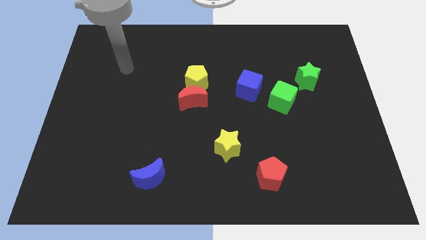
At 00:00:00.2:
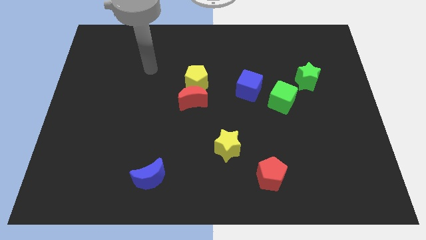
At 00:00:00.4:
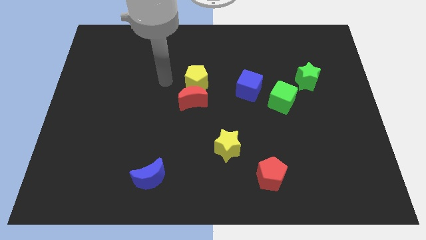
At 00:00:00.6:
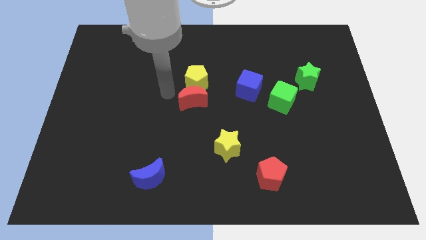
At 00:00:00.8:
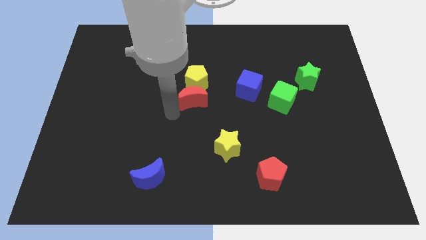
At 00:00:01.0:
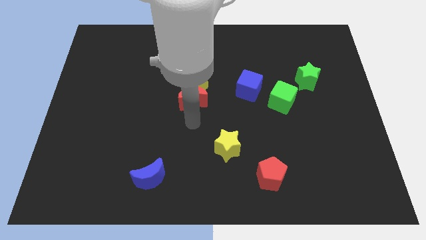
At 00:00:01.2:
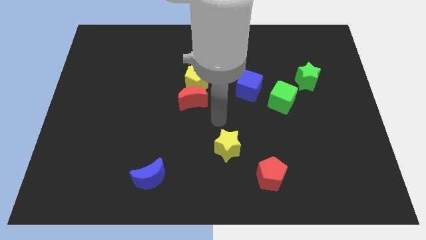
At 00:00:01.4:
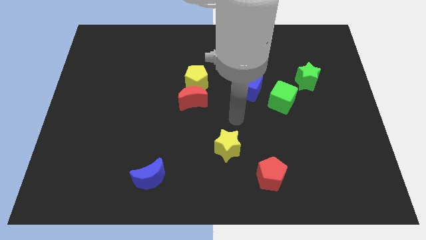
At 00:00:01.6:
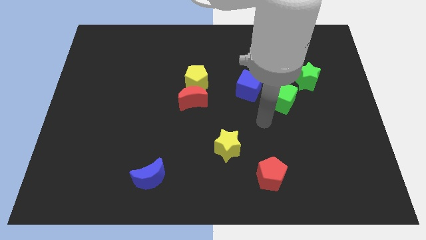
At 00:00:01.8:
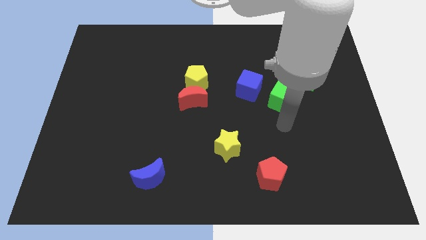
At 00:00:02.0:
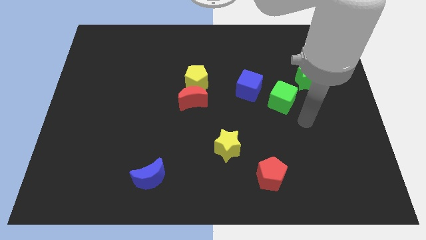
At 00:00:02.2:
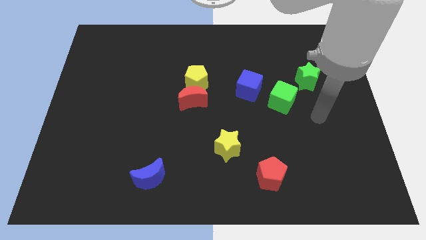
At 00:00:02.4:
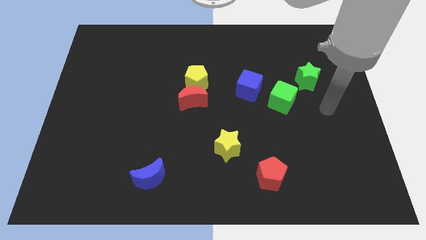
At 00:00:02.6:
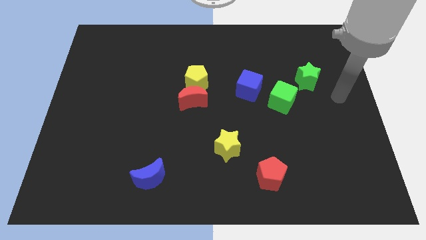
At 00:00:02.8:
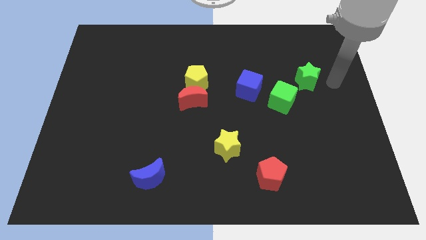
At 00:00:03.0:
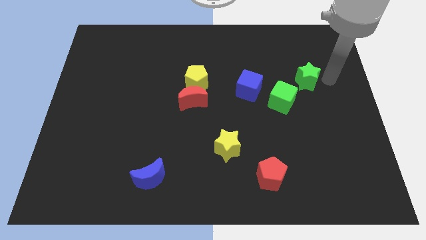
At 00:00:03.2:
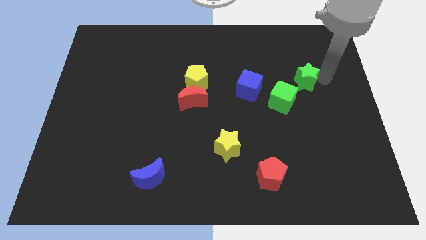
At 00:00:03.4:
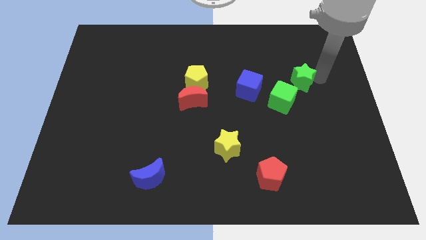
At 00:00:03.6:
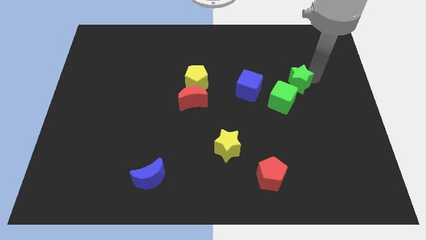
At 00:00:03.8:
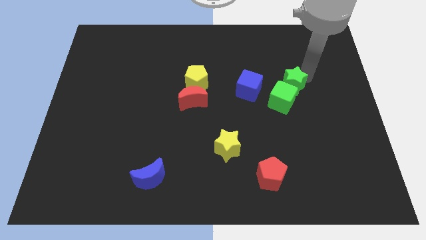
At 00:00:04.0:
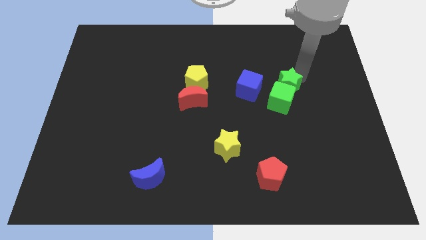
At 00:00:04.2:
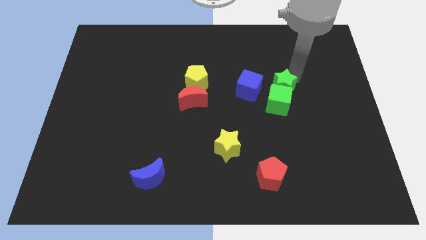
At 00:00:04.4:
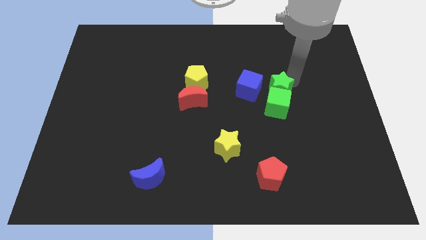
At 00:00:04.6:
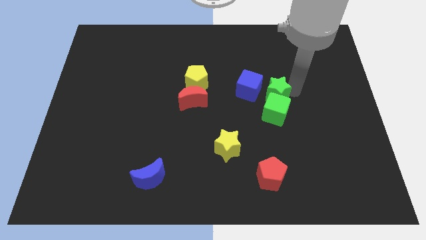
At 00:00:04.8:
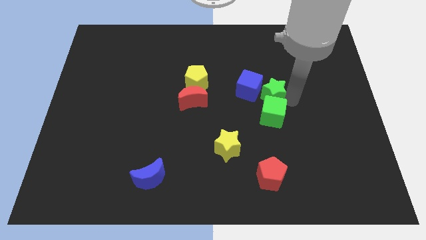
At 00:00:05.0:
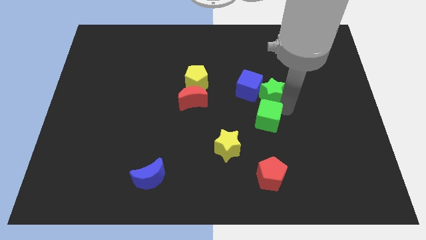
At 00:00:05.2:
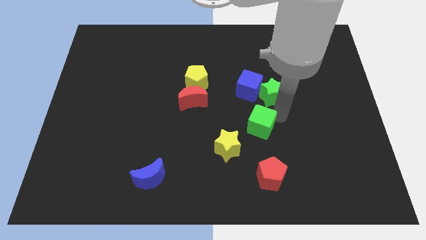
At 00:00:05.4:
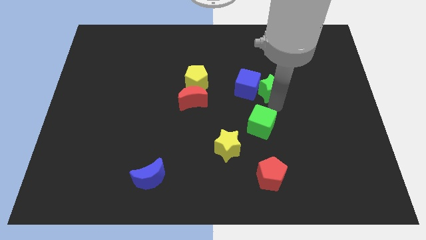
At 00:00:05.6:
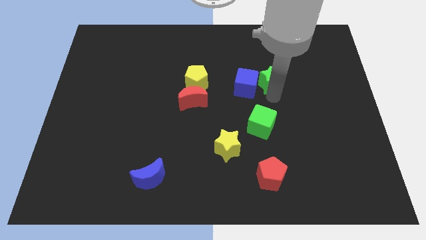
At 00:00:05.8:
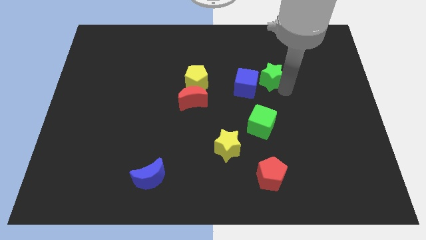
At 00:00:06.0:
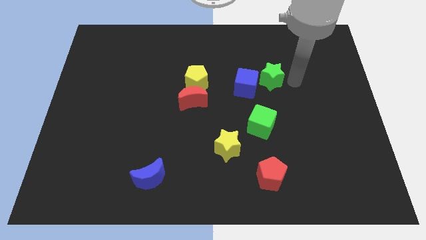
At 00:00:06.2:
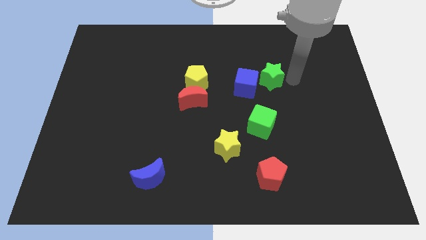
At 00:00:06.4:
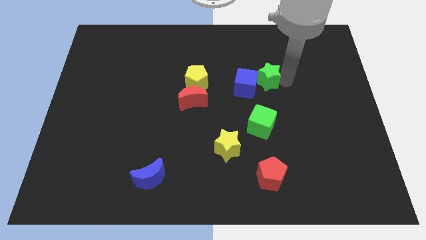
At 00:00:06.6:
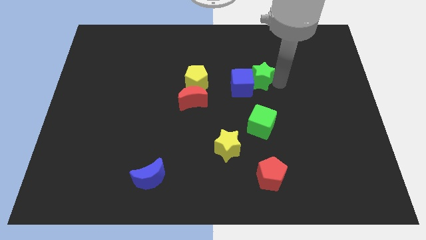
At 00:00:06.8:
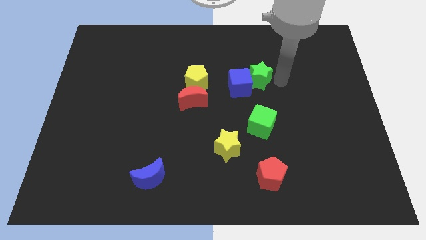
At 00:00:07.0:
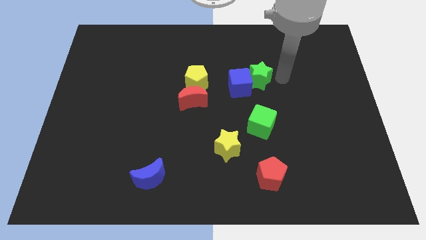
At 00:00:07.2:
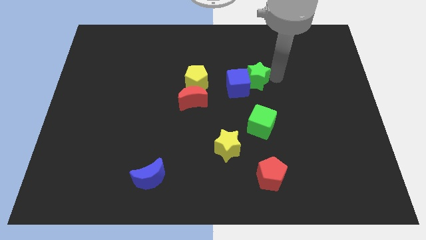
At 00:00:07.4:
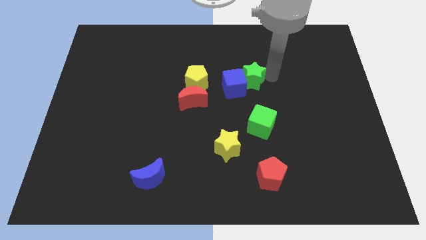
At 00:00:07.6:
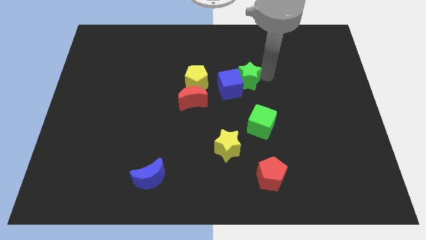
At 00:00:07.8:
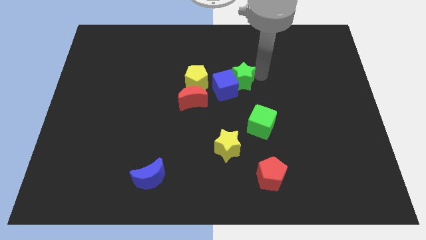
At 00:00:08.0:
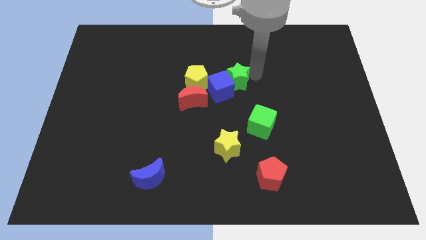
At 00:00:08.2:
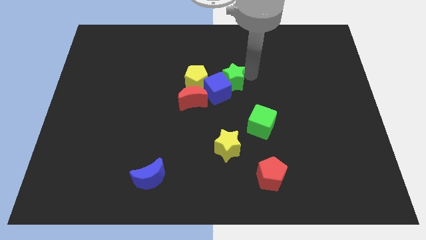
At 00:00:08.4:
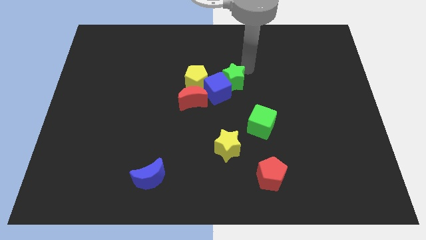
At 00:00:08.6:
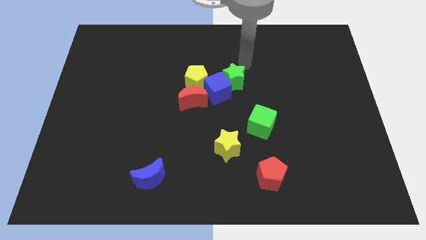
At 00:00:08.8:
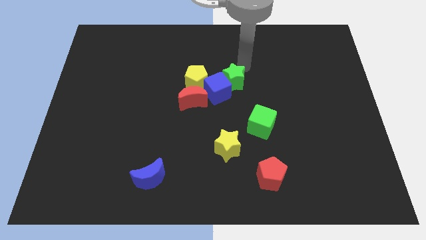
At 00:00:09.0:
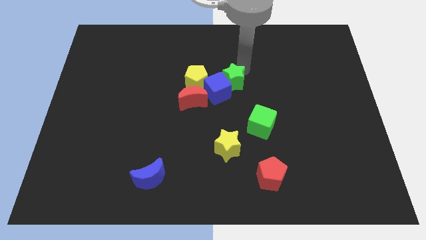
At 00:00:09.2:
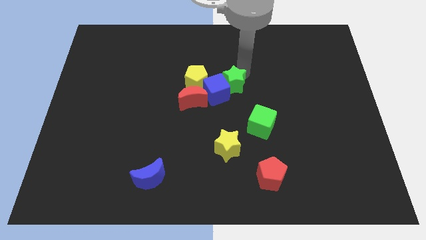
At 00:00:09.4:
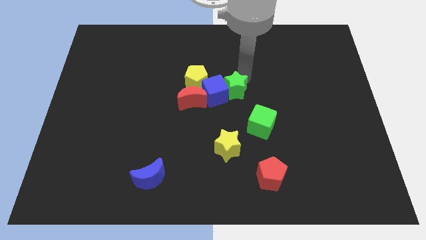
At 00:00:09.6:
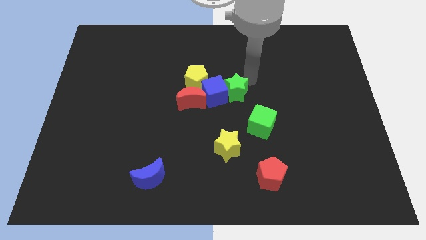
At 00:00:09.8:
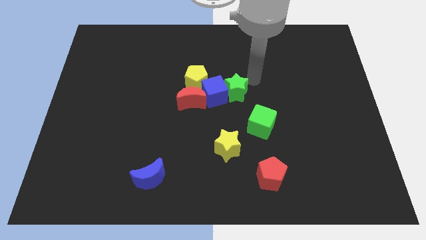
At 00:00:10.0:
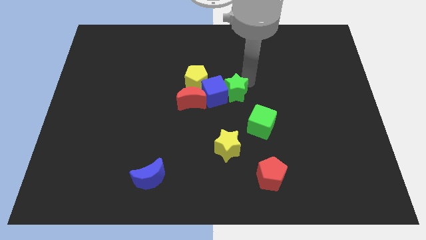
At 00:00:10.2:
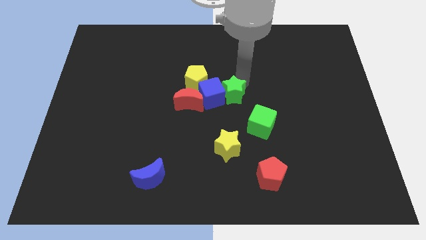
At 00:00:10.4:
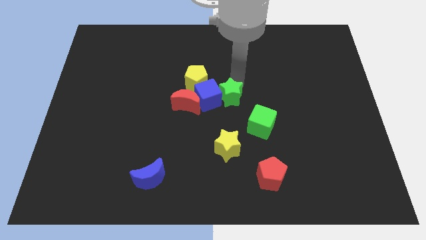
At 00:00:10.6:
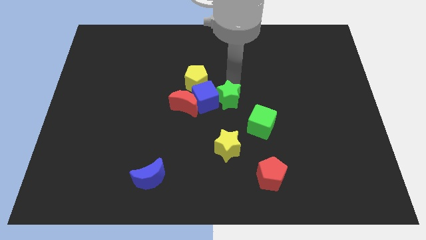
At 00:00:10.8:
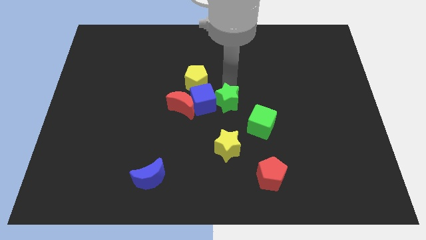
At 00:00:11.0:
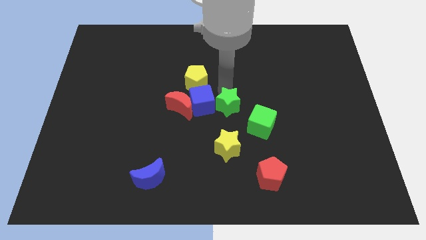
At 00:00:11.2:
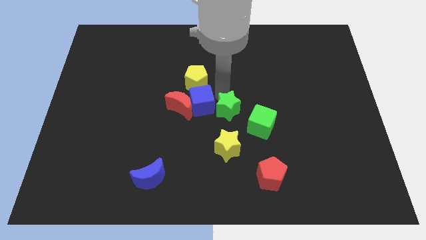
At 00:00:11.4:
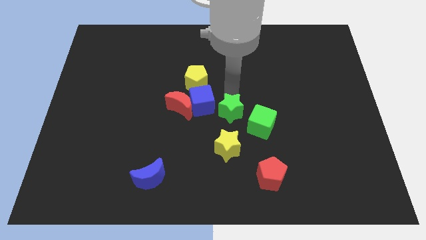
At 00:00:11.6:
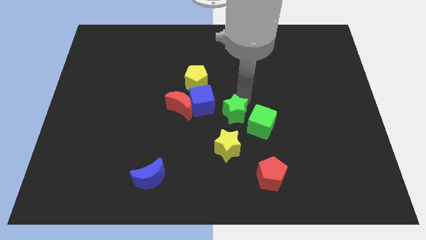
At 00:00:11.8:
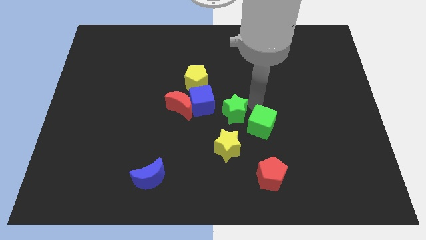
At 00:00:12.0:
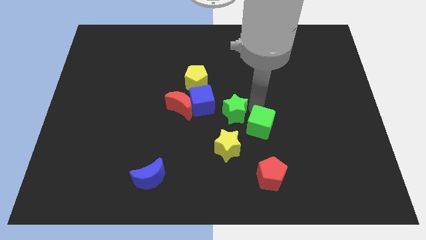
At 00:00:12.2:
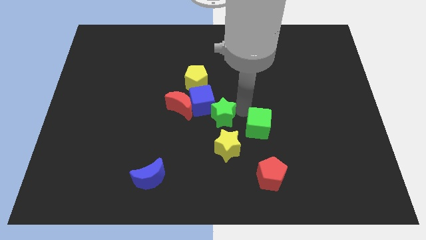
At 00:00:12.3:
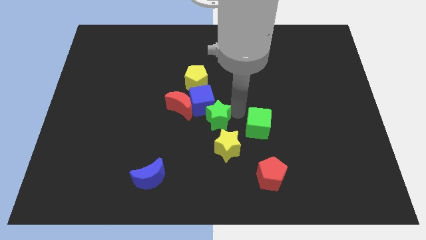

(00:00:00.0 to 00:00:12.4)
move the green star to the top left of the yellow star

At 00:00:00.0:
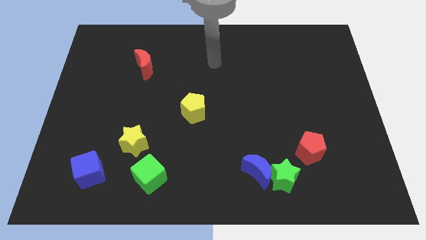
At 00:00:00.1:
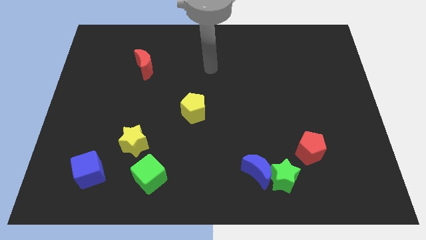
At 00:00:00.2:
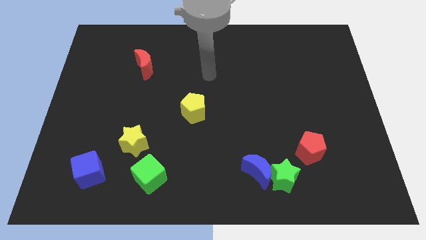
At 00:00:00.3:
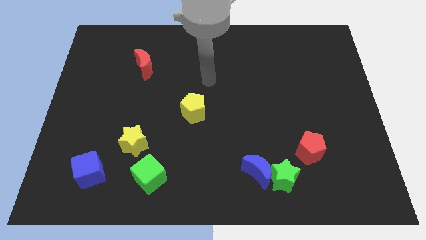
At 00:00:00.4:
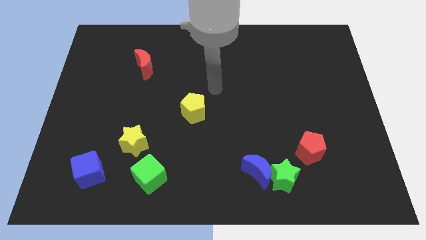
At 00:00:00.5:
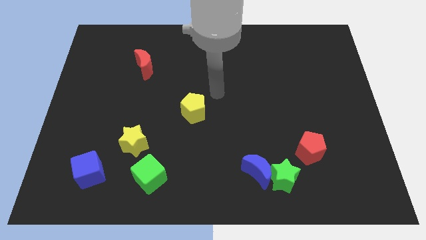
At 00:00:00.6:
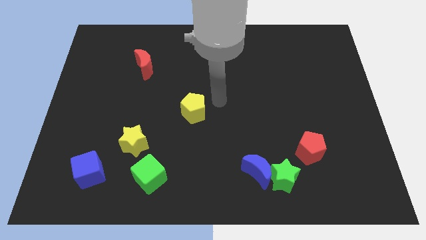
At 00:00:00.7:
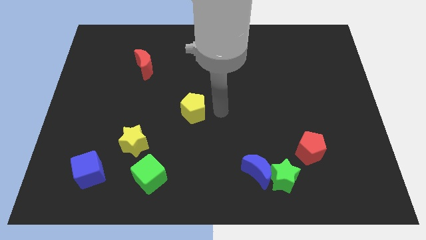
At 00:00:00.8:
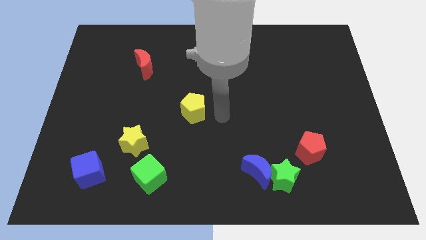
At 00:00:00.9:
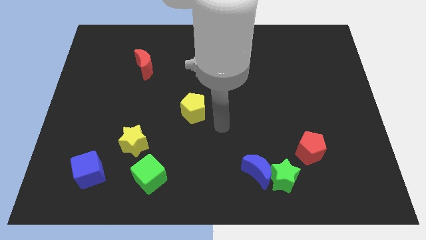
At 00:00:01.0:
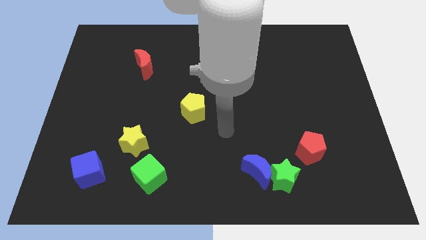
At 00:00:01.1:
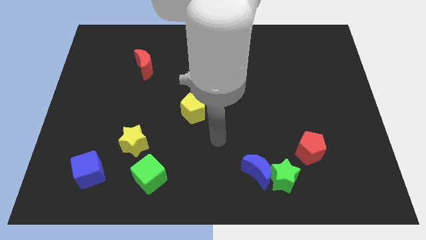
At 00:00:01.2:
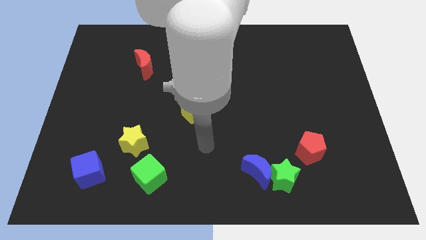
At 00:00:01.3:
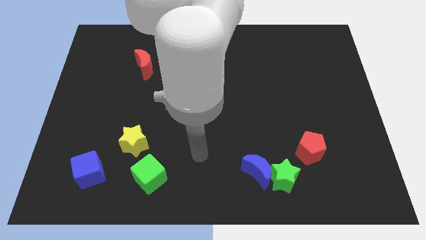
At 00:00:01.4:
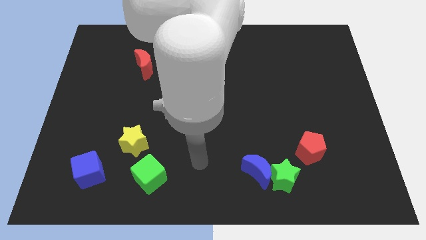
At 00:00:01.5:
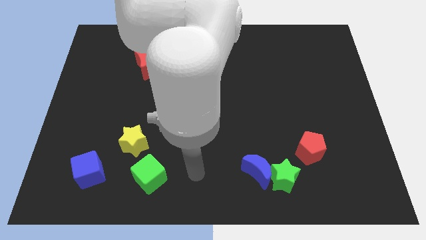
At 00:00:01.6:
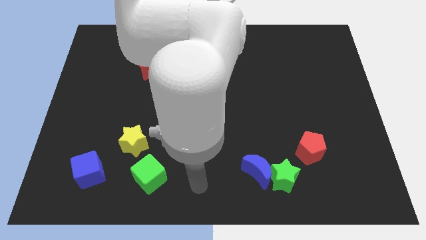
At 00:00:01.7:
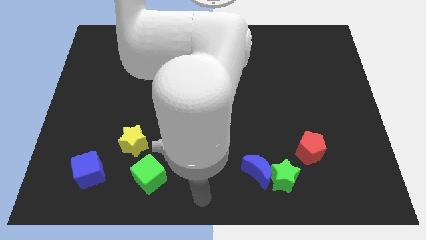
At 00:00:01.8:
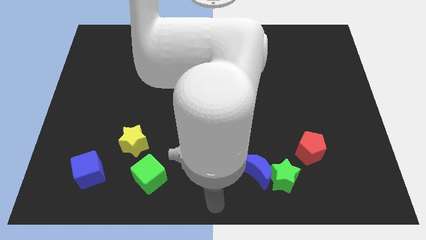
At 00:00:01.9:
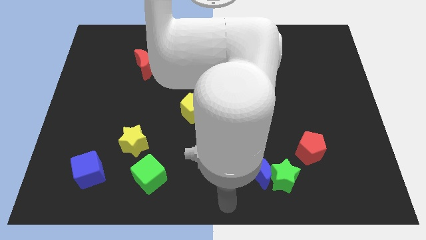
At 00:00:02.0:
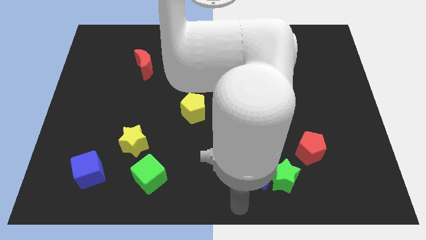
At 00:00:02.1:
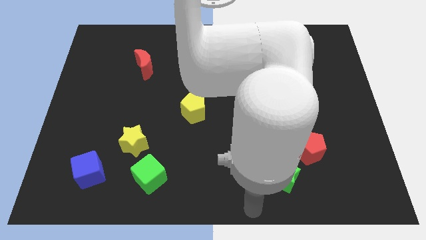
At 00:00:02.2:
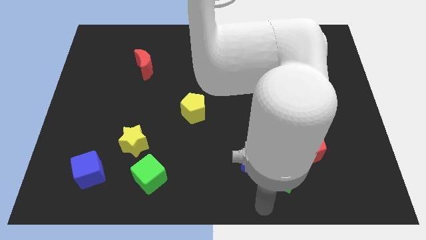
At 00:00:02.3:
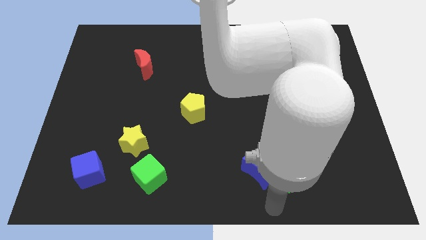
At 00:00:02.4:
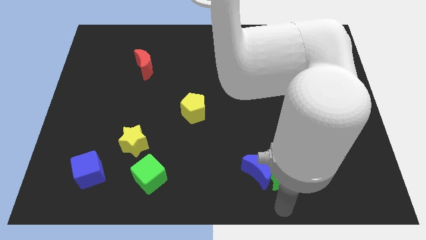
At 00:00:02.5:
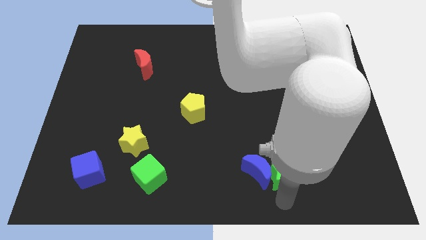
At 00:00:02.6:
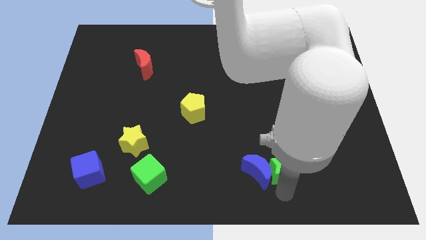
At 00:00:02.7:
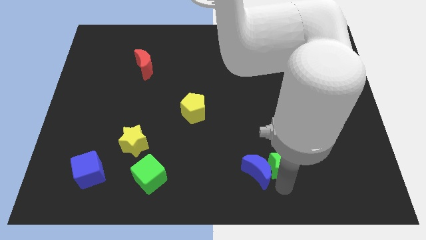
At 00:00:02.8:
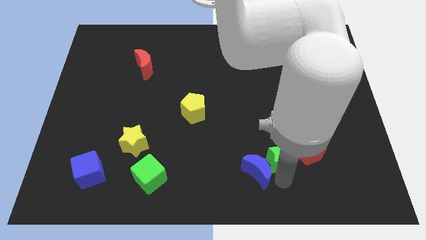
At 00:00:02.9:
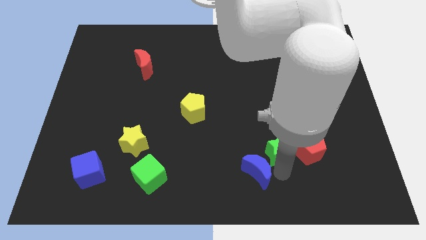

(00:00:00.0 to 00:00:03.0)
put the green star to the top left of the red pentagon
